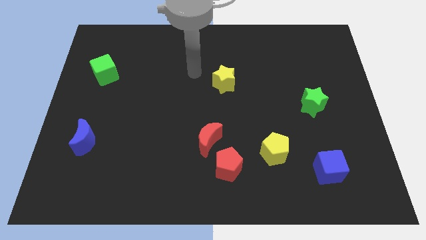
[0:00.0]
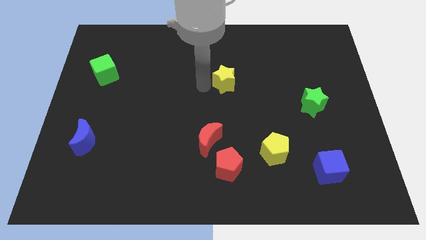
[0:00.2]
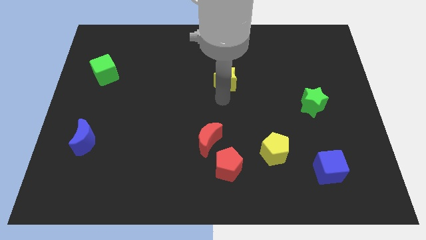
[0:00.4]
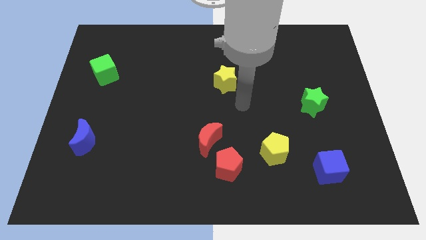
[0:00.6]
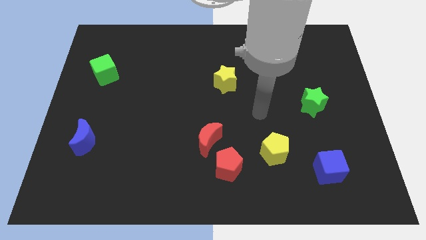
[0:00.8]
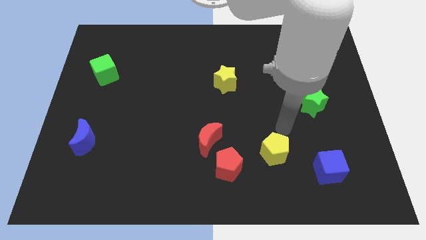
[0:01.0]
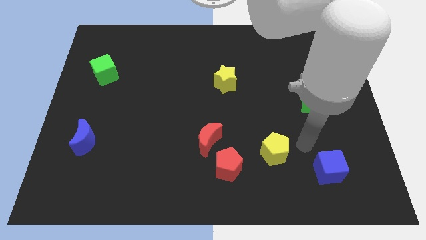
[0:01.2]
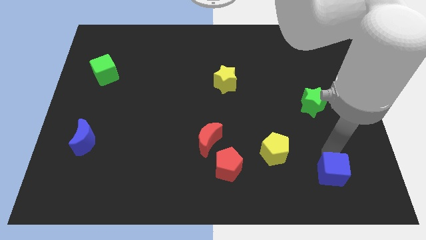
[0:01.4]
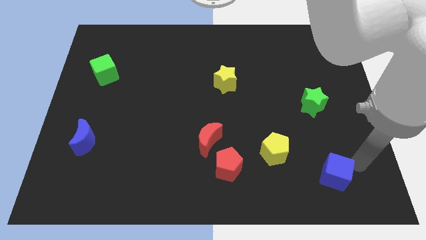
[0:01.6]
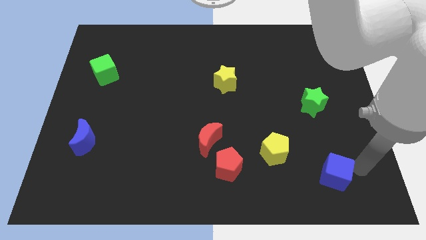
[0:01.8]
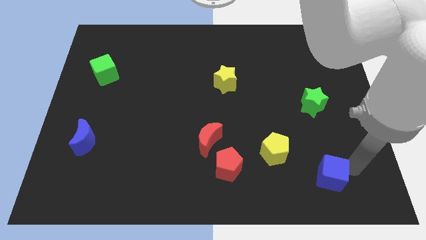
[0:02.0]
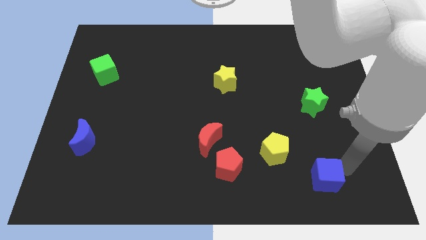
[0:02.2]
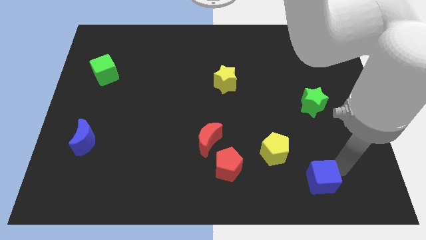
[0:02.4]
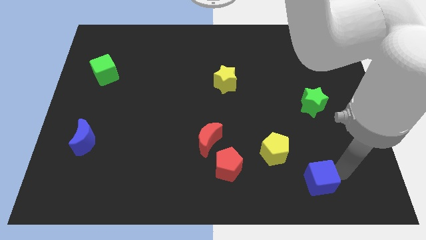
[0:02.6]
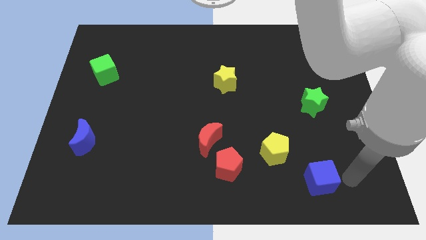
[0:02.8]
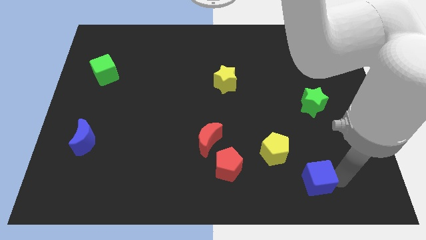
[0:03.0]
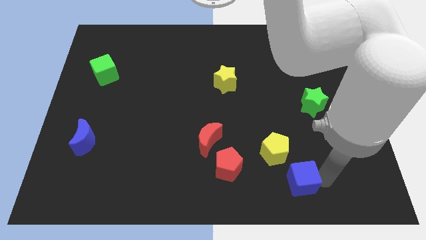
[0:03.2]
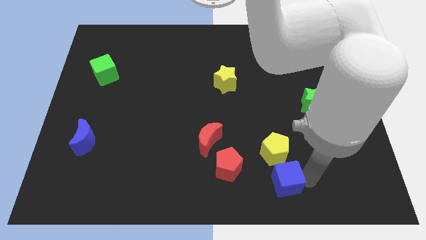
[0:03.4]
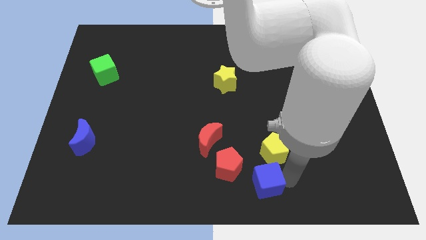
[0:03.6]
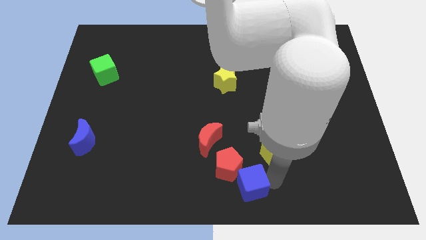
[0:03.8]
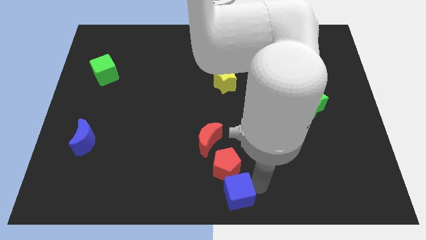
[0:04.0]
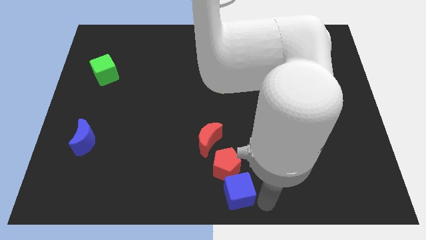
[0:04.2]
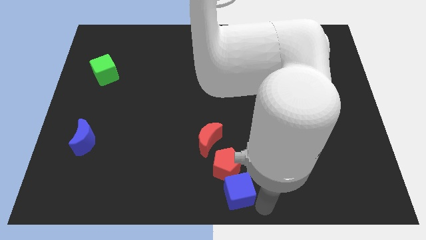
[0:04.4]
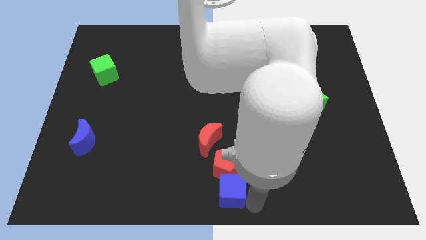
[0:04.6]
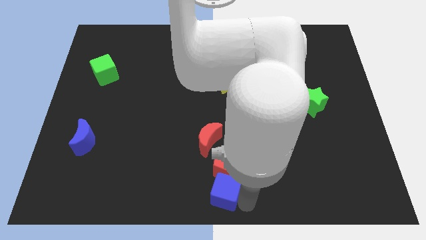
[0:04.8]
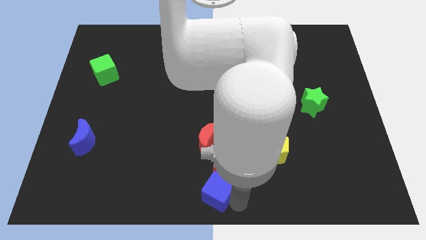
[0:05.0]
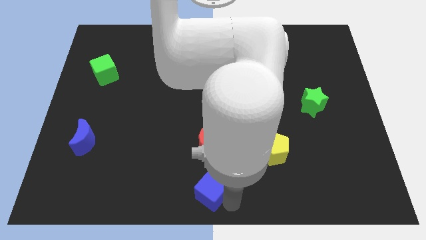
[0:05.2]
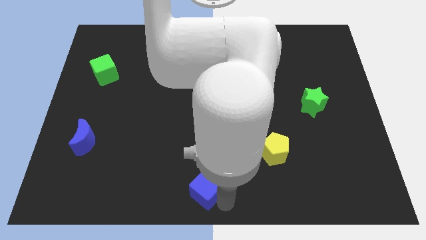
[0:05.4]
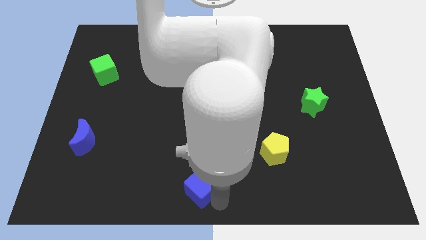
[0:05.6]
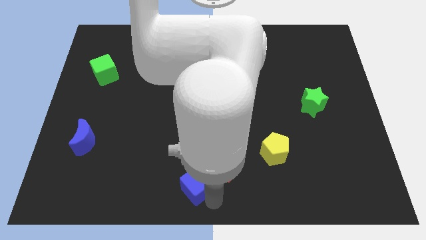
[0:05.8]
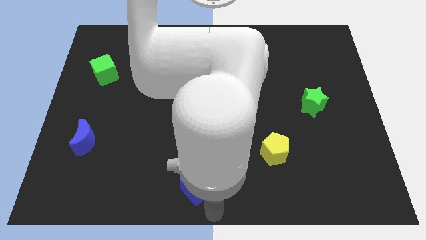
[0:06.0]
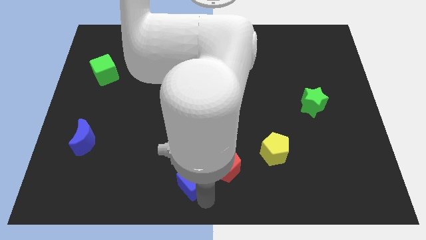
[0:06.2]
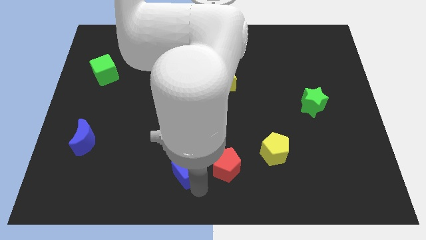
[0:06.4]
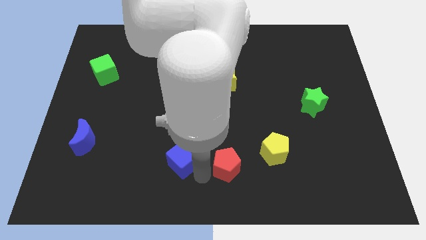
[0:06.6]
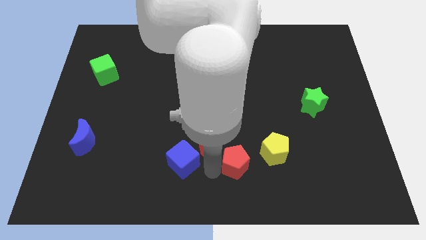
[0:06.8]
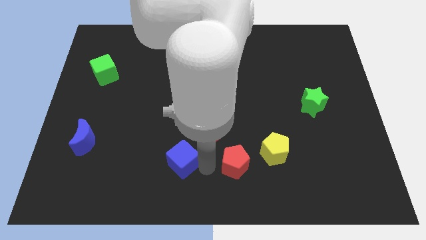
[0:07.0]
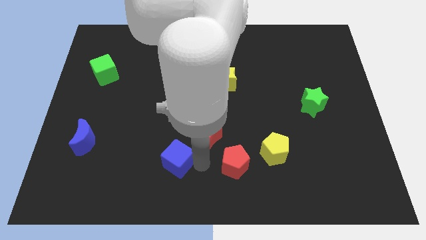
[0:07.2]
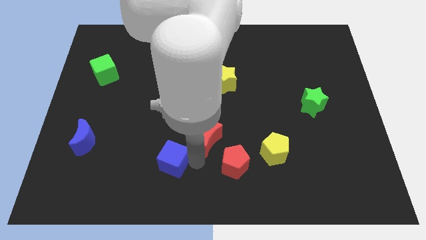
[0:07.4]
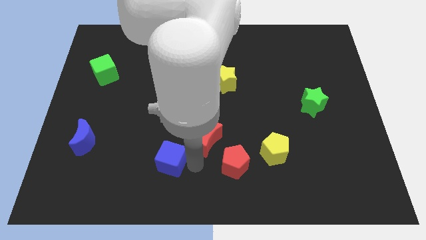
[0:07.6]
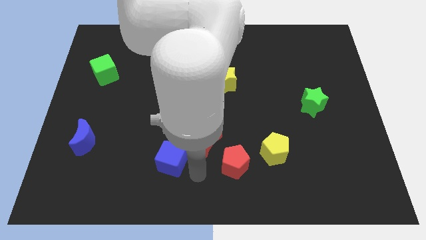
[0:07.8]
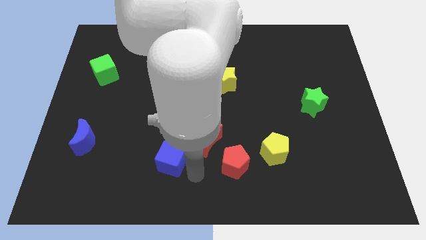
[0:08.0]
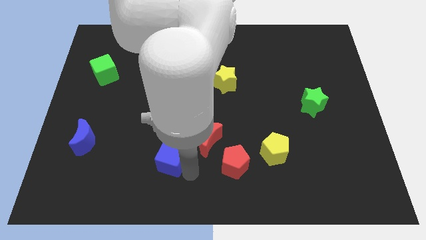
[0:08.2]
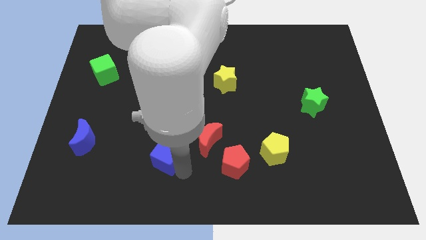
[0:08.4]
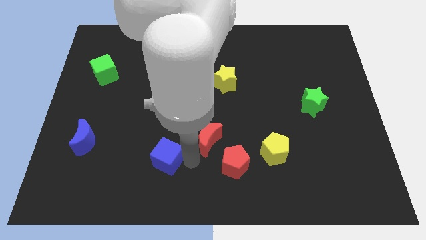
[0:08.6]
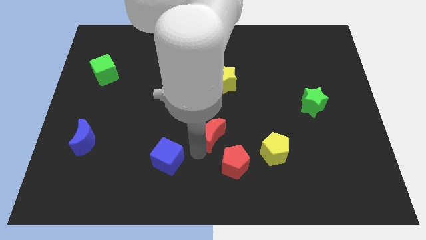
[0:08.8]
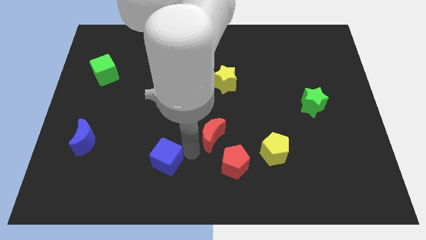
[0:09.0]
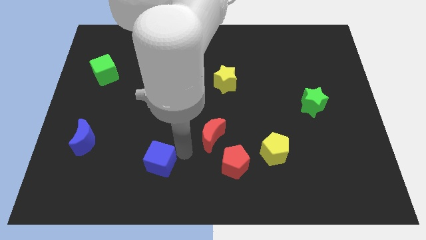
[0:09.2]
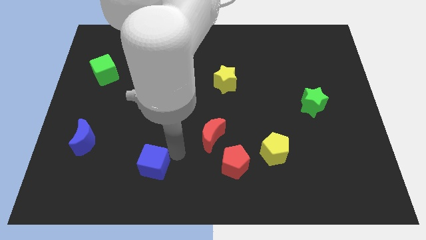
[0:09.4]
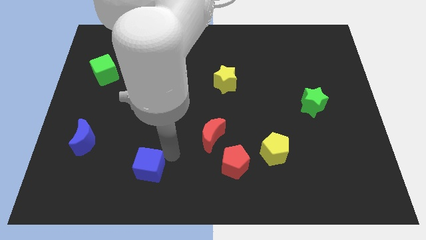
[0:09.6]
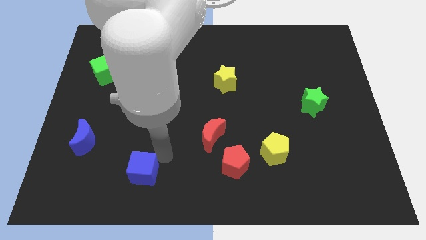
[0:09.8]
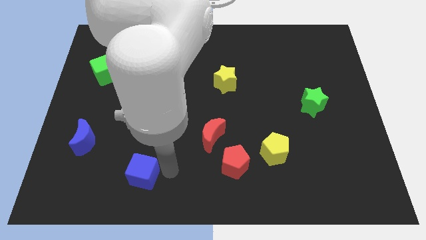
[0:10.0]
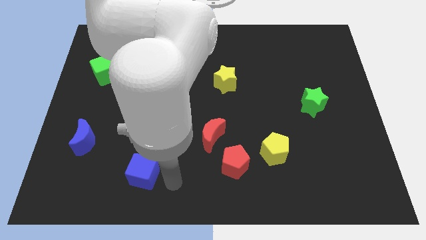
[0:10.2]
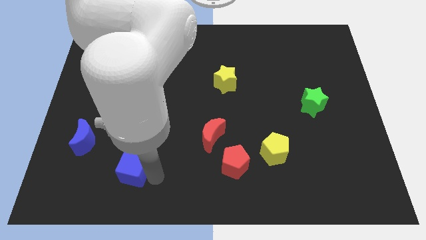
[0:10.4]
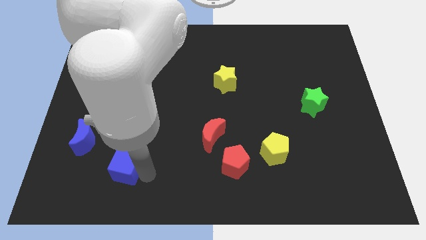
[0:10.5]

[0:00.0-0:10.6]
put the blue cube to the bottom right side of the blue moon

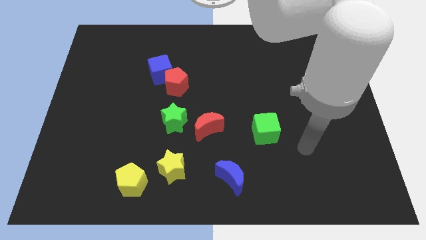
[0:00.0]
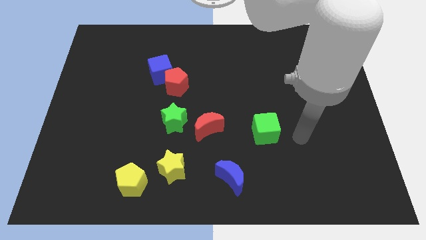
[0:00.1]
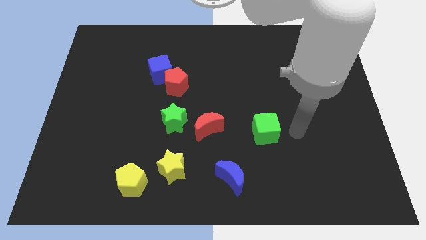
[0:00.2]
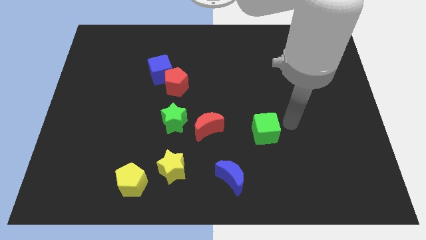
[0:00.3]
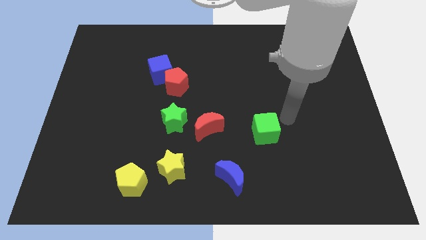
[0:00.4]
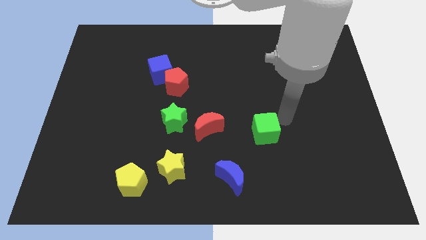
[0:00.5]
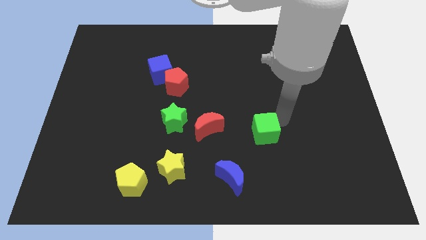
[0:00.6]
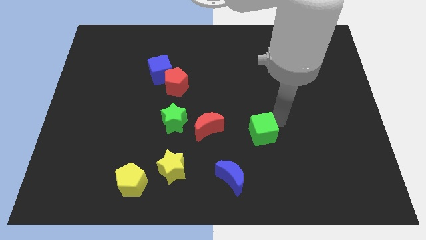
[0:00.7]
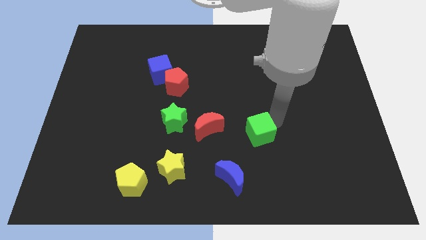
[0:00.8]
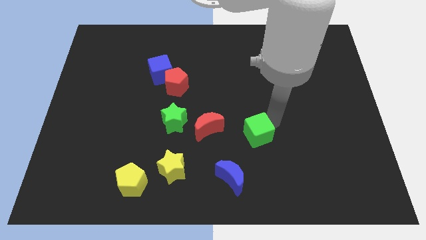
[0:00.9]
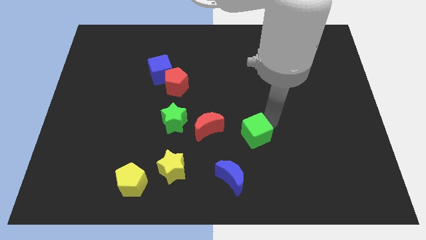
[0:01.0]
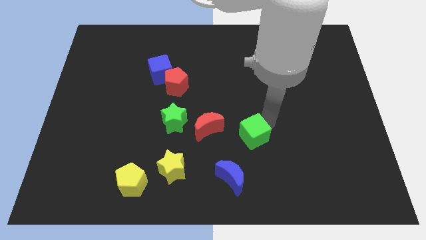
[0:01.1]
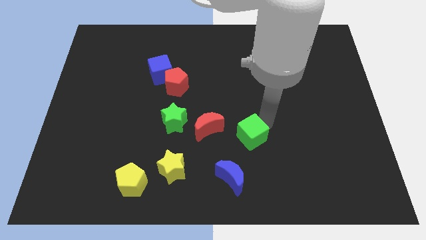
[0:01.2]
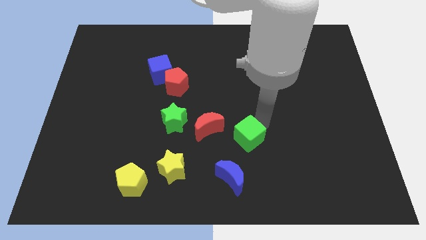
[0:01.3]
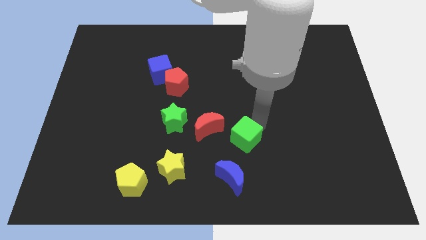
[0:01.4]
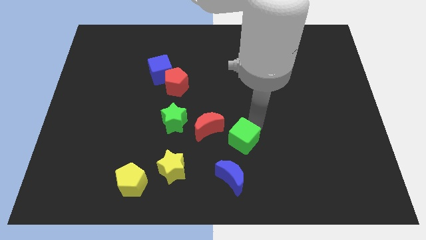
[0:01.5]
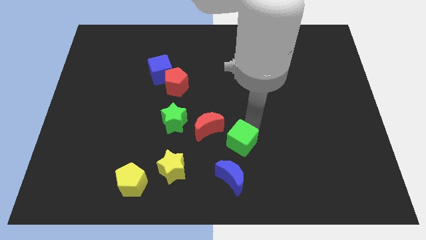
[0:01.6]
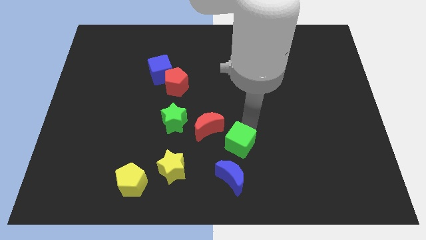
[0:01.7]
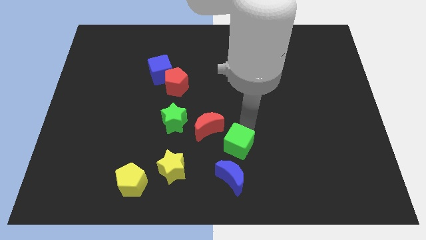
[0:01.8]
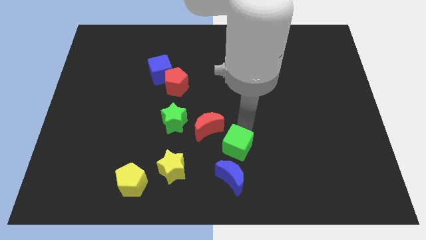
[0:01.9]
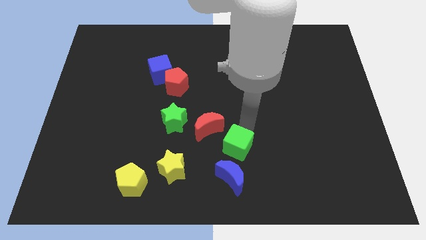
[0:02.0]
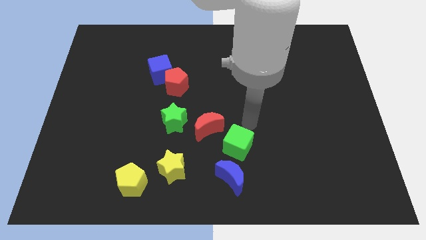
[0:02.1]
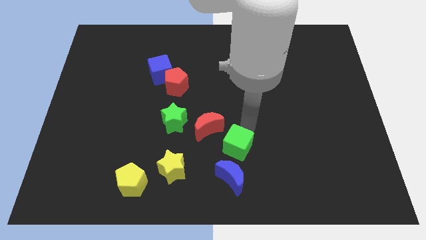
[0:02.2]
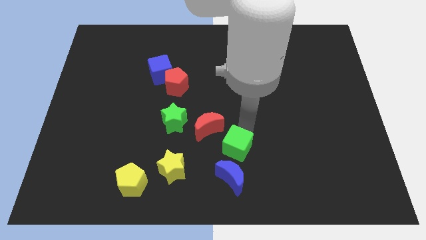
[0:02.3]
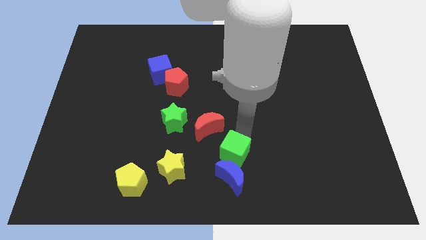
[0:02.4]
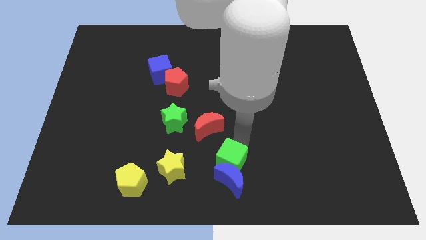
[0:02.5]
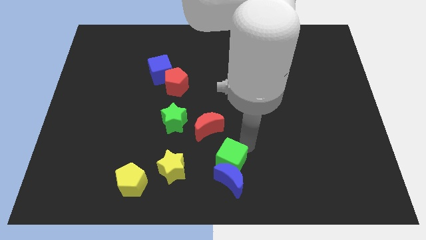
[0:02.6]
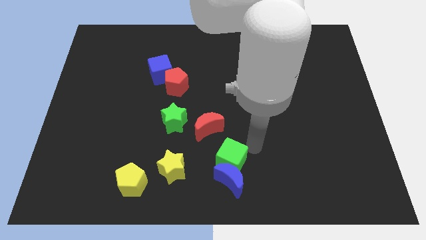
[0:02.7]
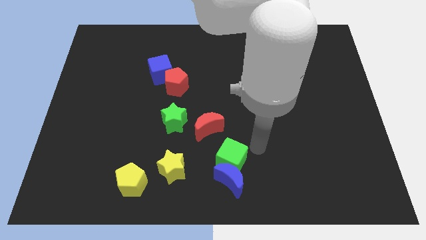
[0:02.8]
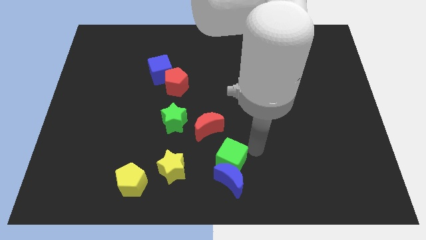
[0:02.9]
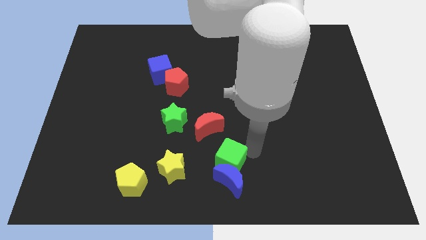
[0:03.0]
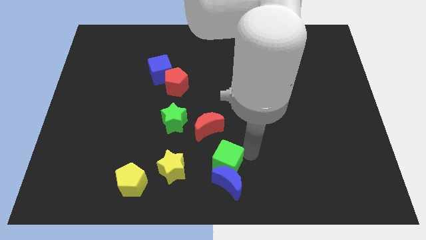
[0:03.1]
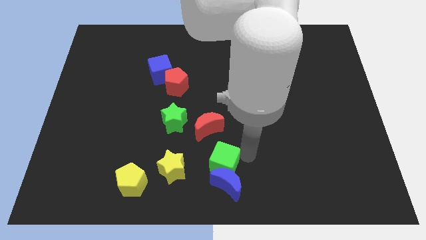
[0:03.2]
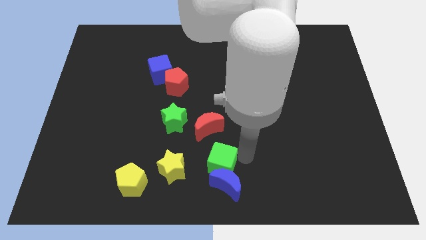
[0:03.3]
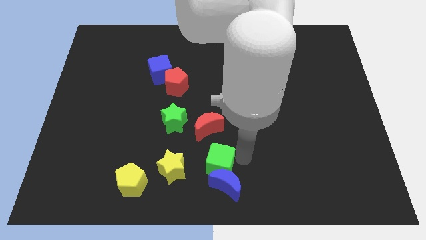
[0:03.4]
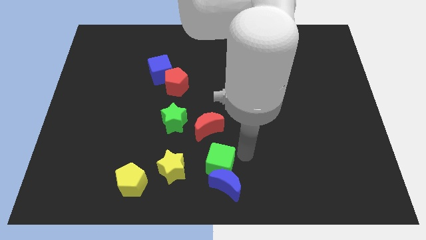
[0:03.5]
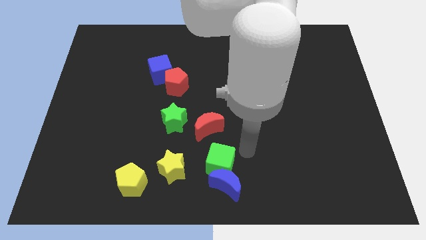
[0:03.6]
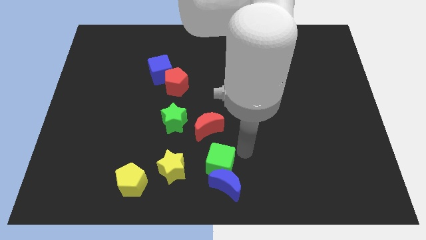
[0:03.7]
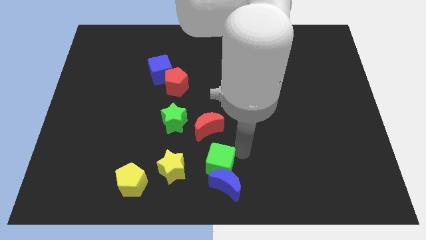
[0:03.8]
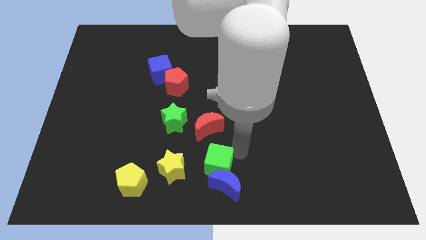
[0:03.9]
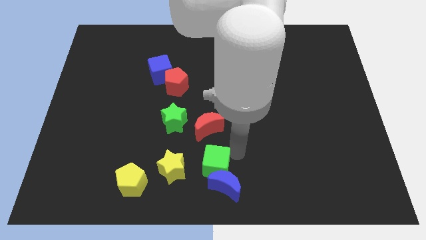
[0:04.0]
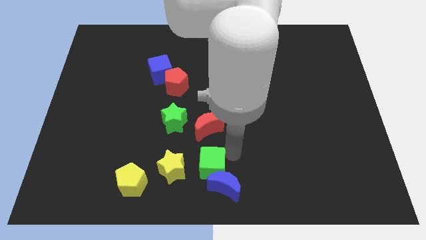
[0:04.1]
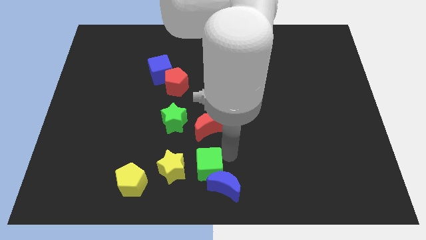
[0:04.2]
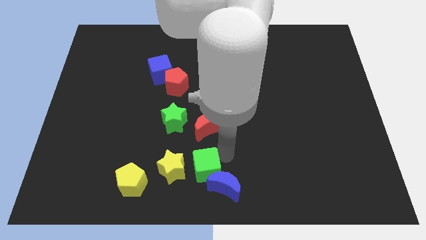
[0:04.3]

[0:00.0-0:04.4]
push the green cube right of the yellow pentagon
